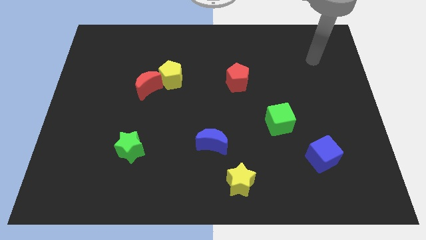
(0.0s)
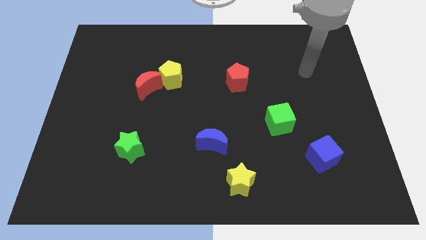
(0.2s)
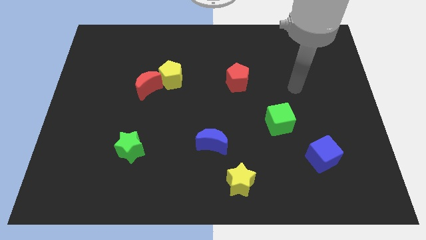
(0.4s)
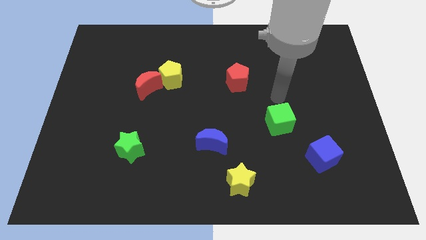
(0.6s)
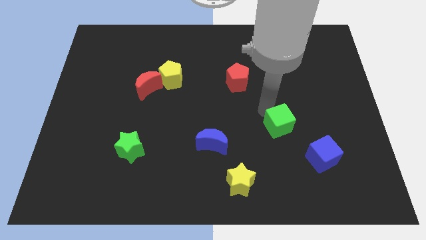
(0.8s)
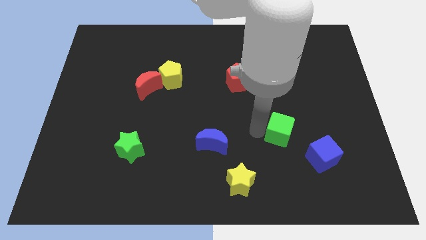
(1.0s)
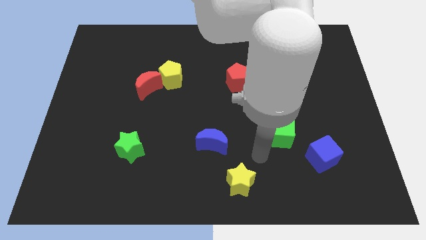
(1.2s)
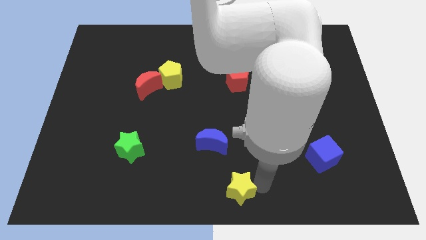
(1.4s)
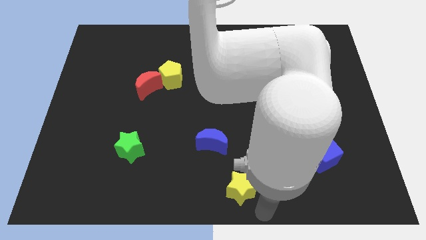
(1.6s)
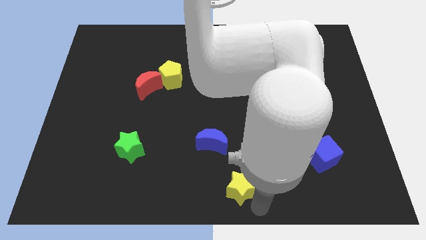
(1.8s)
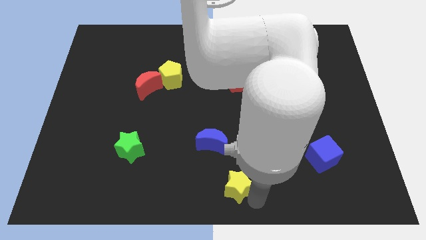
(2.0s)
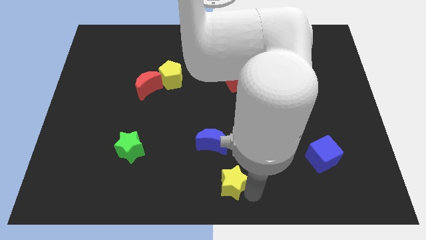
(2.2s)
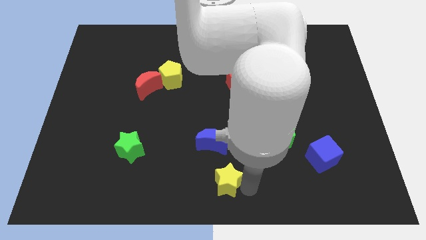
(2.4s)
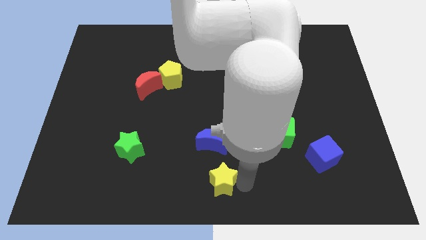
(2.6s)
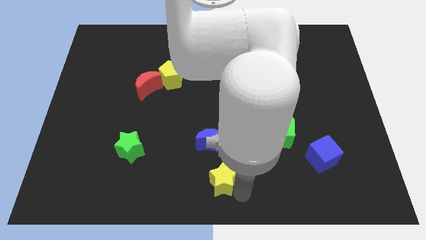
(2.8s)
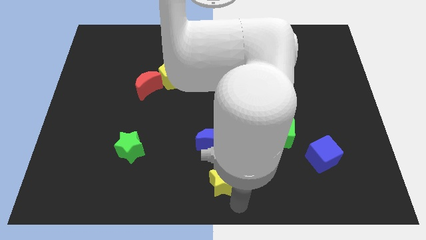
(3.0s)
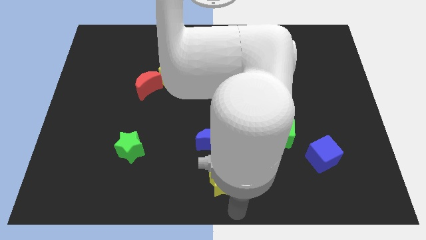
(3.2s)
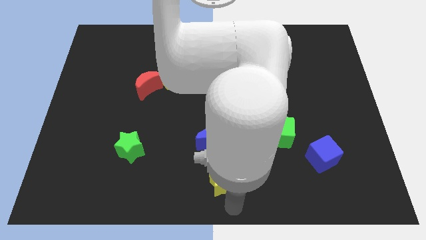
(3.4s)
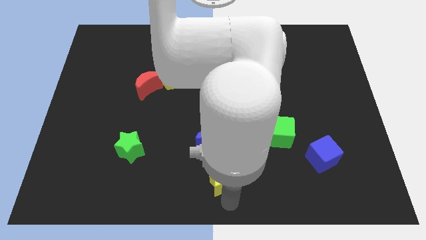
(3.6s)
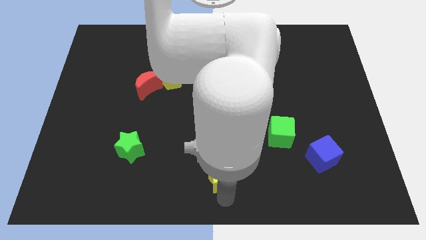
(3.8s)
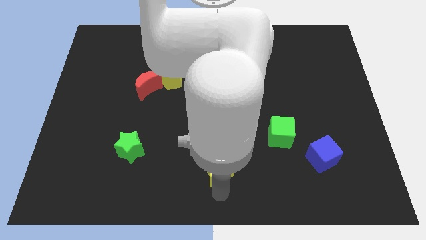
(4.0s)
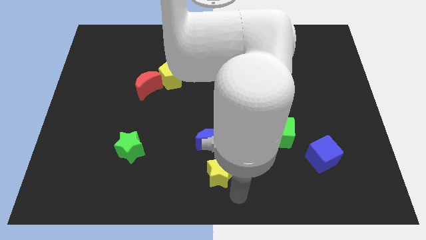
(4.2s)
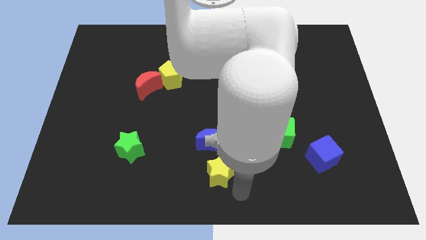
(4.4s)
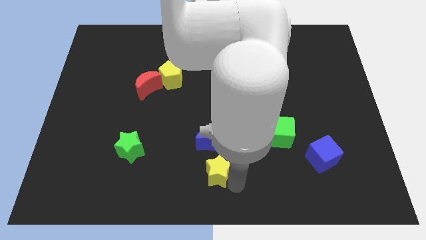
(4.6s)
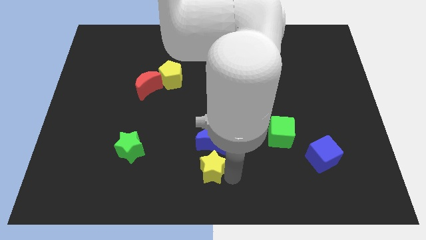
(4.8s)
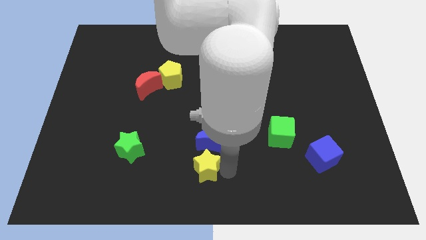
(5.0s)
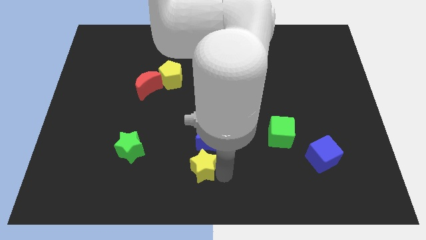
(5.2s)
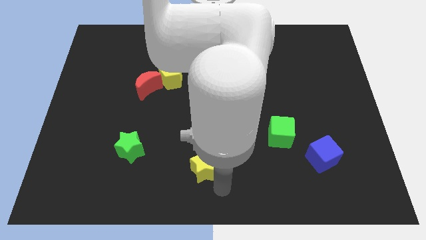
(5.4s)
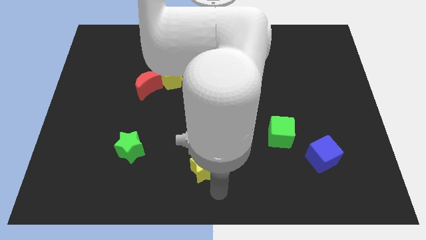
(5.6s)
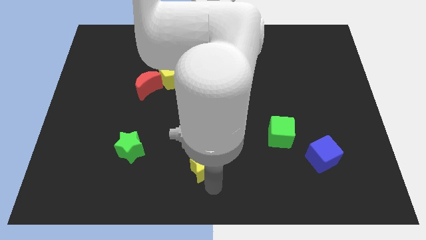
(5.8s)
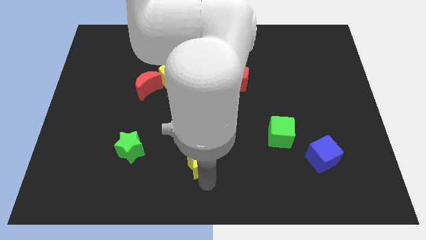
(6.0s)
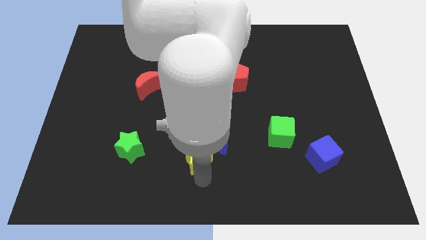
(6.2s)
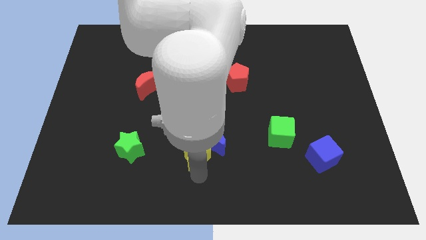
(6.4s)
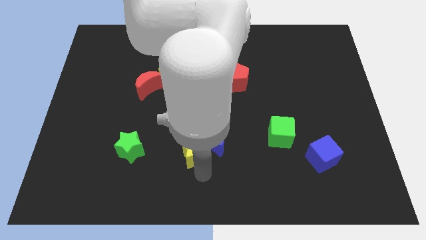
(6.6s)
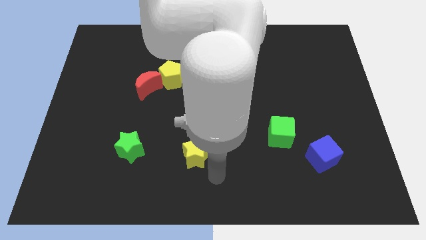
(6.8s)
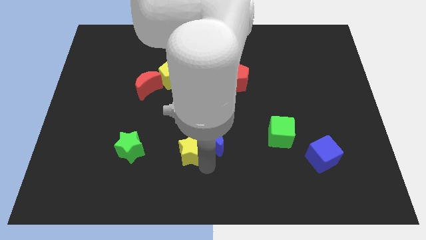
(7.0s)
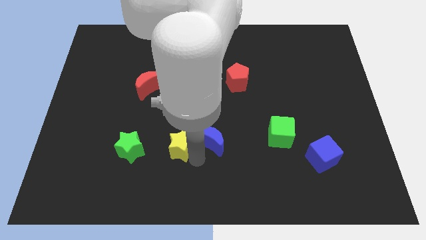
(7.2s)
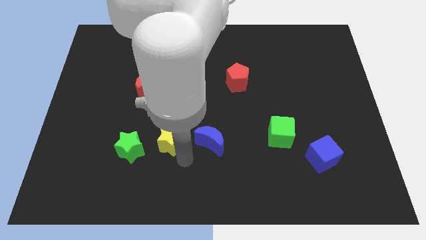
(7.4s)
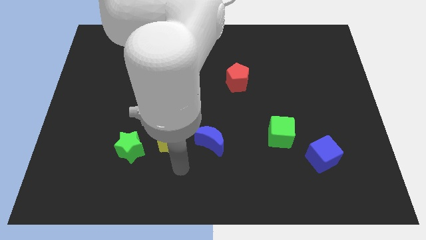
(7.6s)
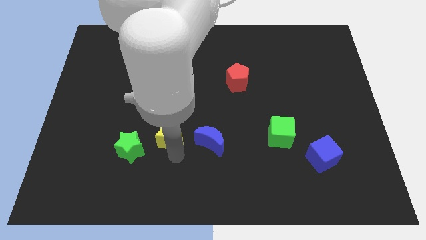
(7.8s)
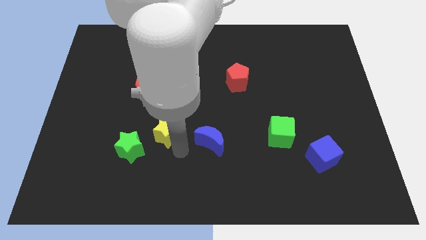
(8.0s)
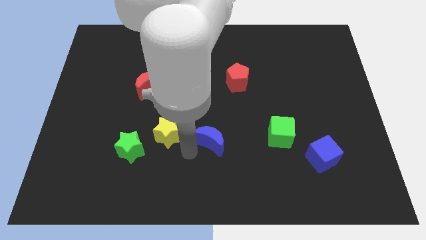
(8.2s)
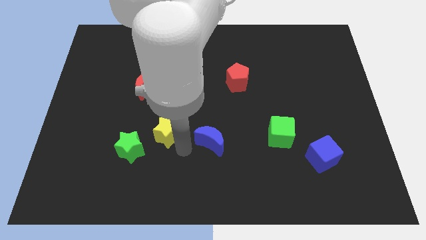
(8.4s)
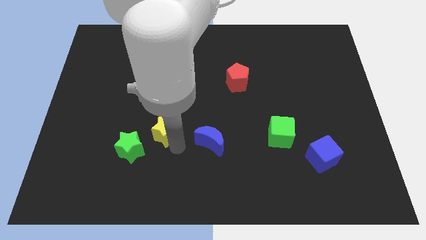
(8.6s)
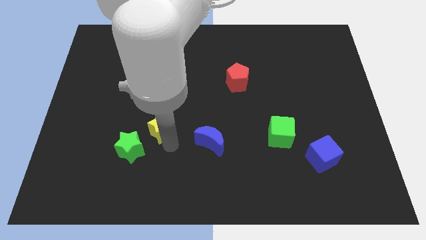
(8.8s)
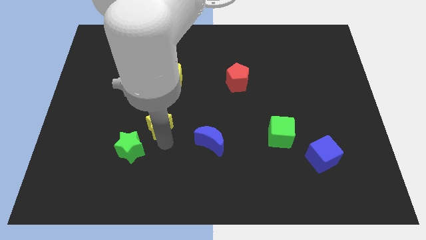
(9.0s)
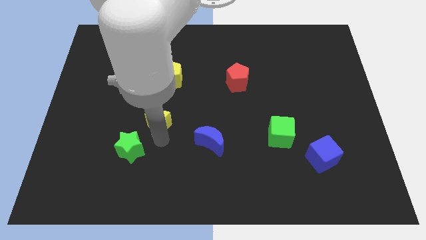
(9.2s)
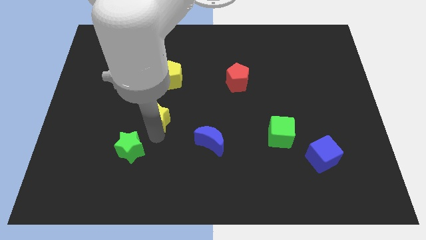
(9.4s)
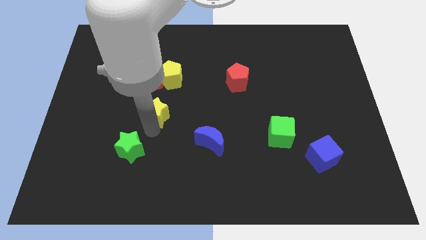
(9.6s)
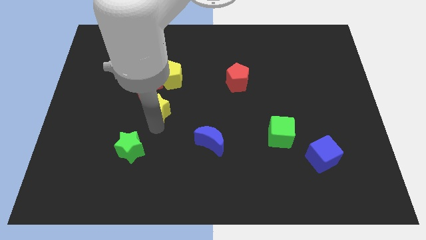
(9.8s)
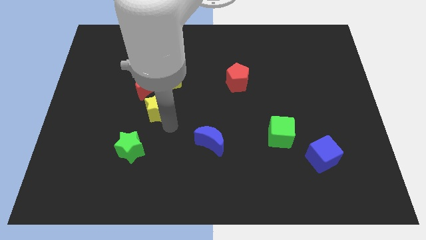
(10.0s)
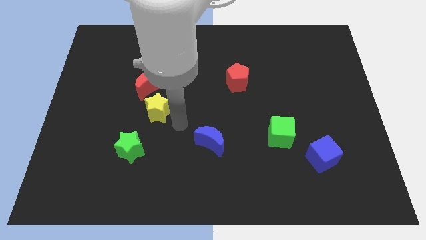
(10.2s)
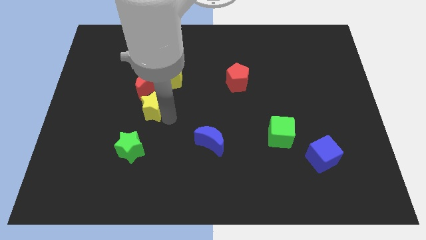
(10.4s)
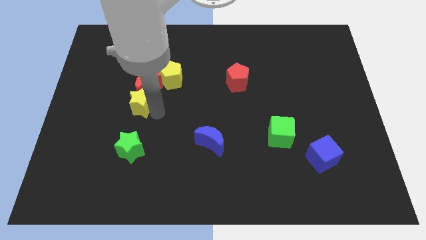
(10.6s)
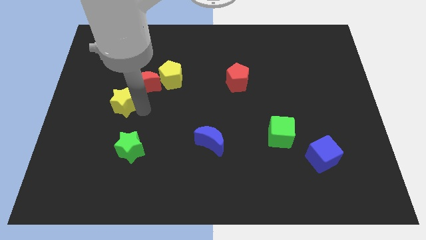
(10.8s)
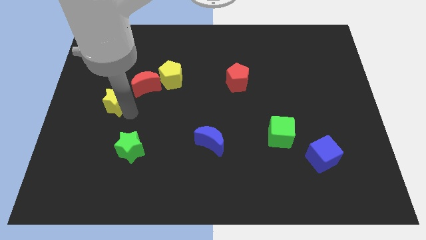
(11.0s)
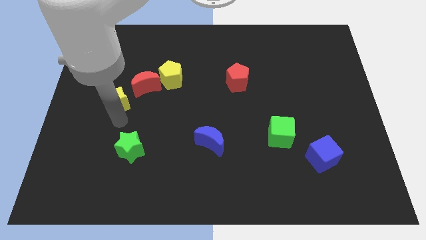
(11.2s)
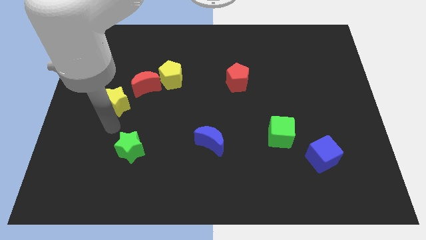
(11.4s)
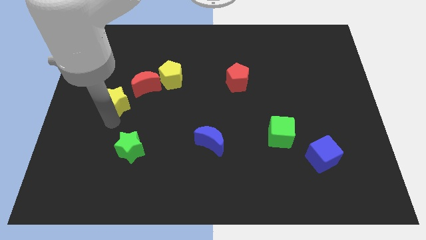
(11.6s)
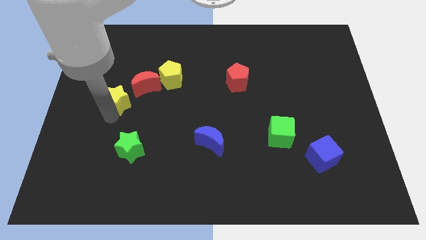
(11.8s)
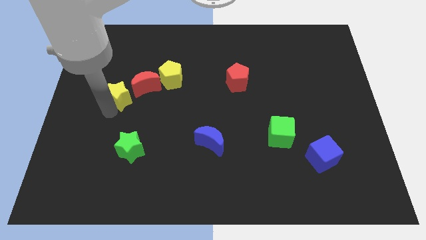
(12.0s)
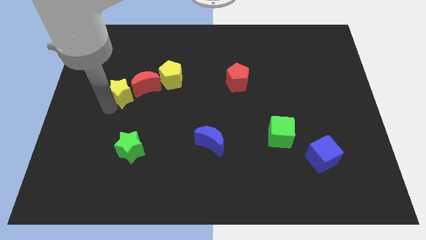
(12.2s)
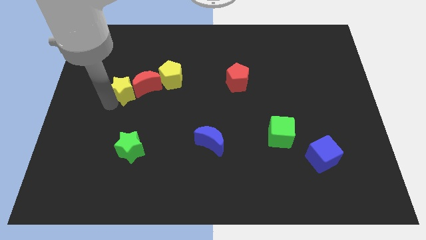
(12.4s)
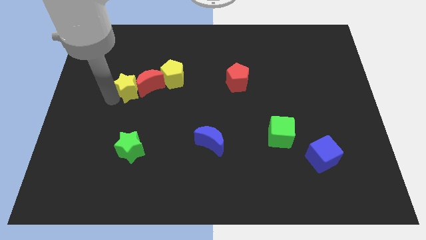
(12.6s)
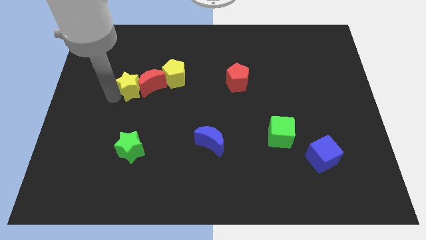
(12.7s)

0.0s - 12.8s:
push the yellow star diagonally up and to the left of the red moon

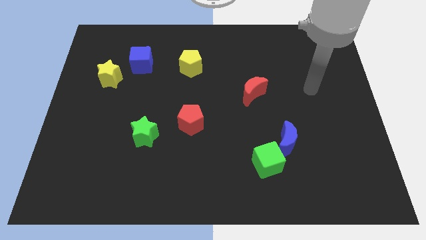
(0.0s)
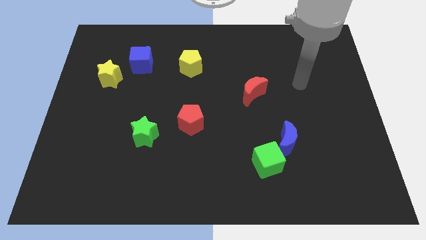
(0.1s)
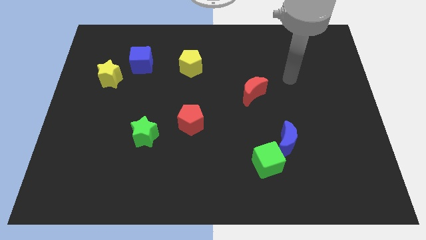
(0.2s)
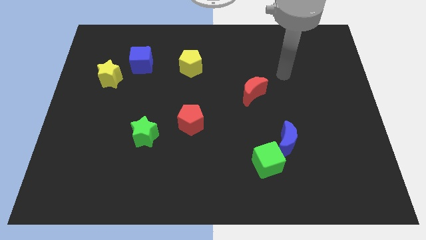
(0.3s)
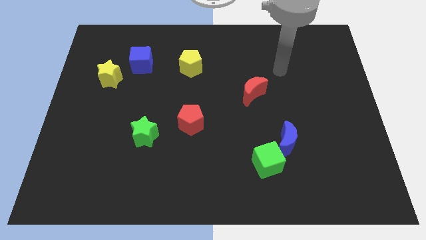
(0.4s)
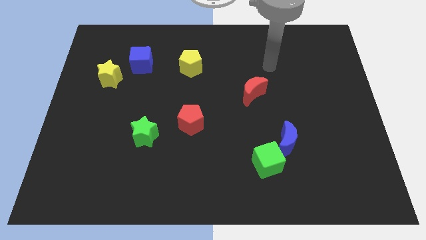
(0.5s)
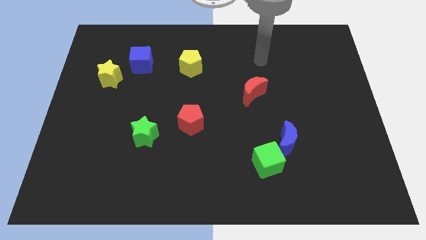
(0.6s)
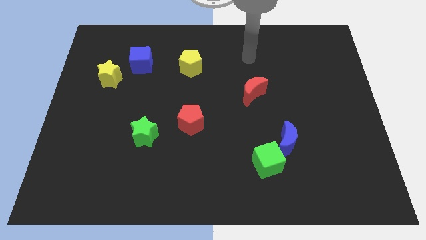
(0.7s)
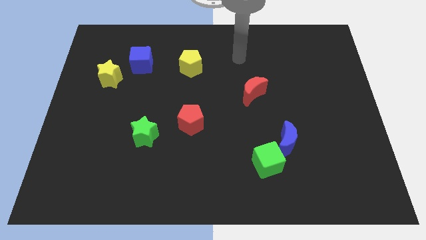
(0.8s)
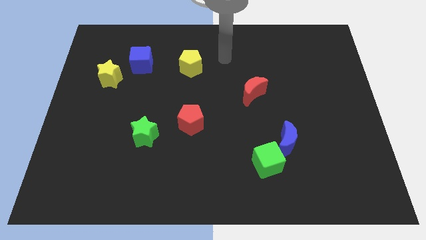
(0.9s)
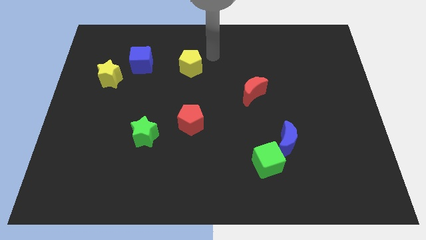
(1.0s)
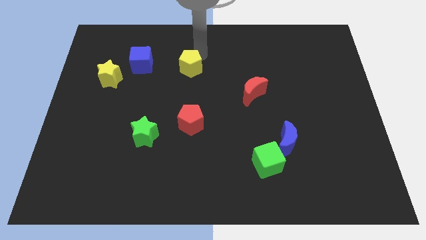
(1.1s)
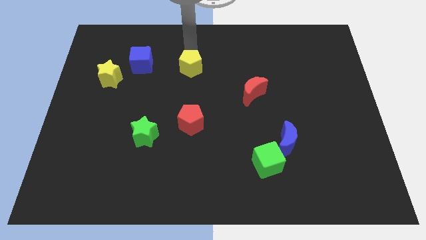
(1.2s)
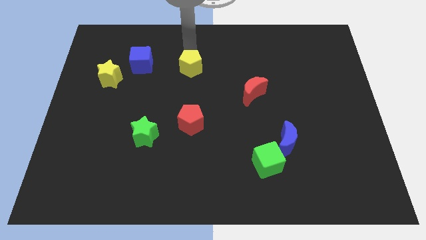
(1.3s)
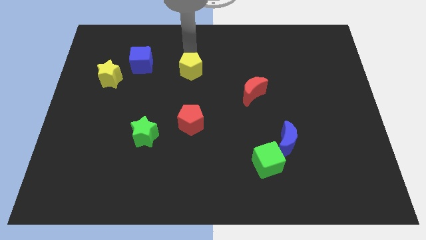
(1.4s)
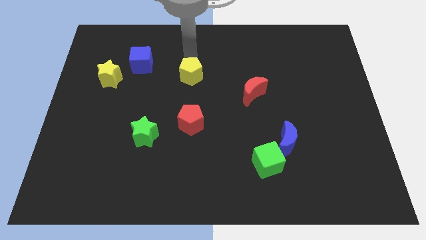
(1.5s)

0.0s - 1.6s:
slide the yellow pentagon above the red pentagon

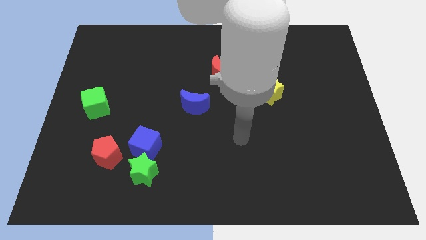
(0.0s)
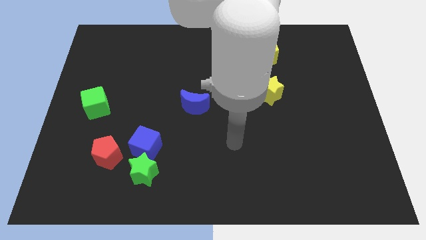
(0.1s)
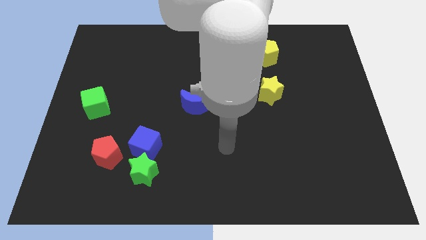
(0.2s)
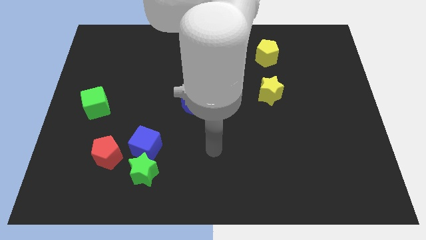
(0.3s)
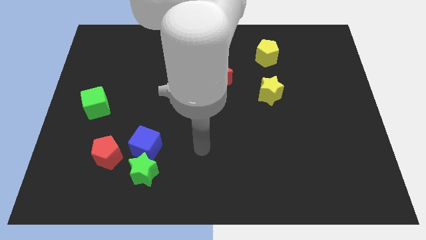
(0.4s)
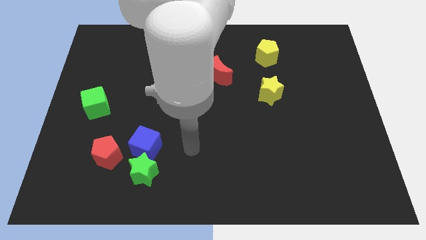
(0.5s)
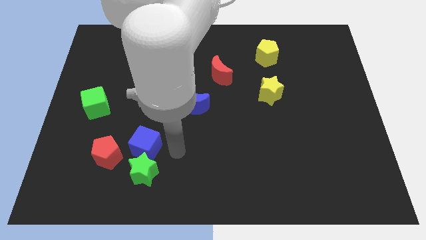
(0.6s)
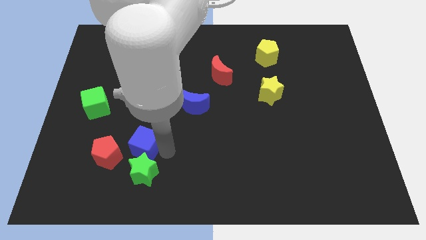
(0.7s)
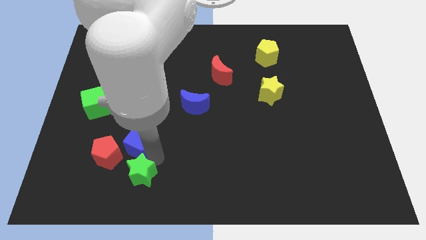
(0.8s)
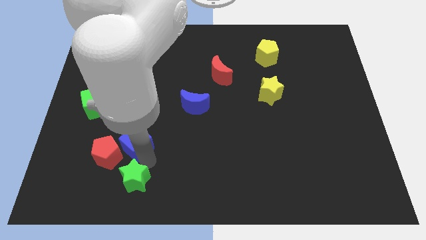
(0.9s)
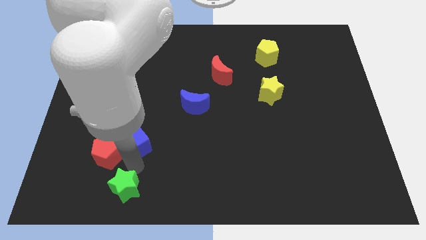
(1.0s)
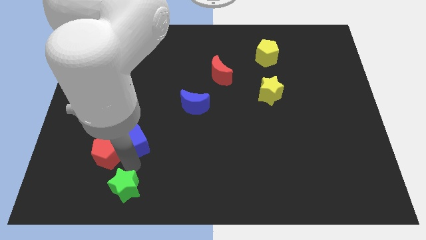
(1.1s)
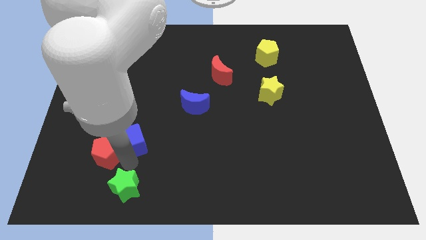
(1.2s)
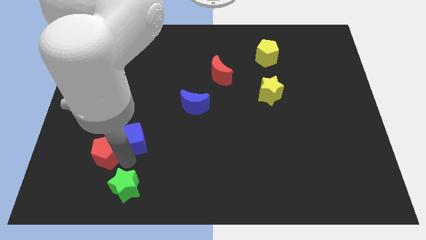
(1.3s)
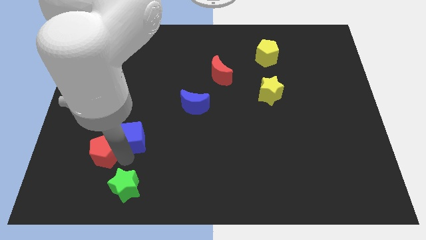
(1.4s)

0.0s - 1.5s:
move the red pentagon to the bottom side of the green cube
